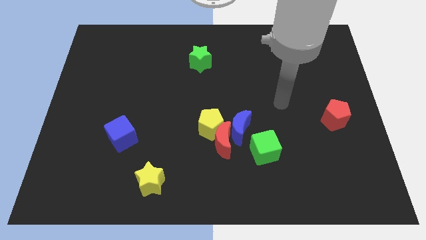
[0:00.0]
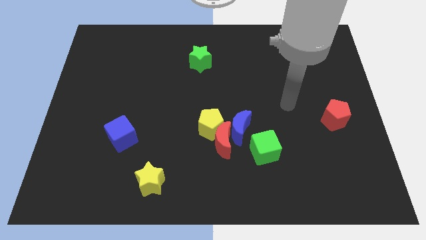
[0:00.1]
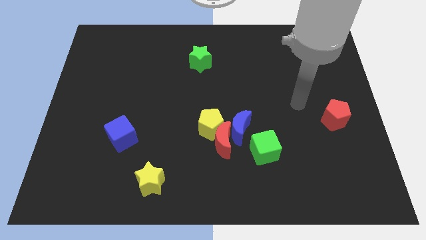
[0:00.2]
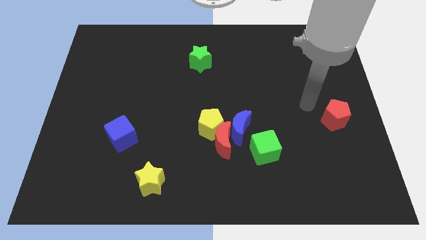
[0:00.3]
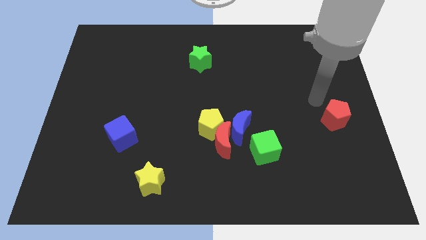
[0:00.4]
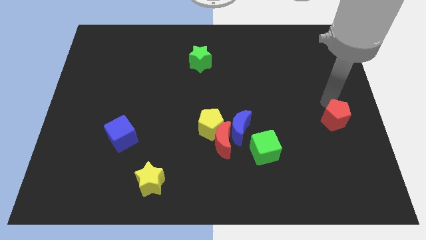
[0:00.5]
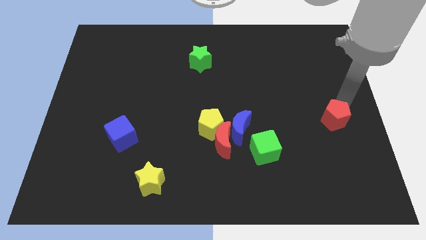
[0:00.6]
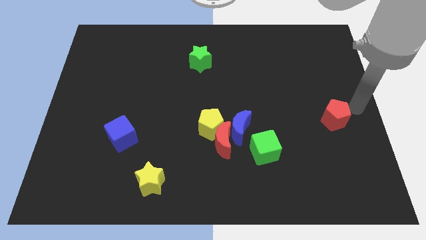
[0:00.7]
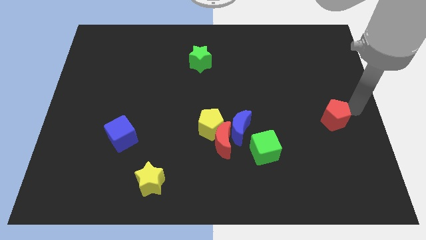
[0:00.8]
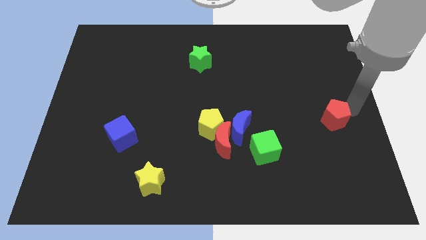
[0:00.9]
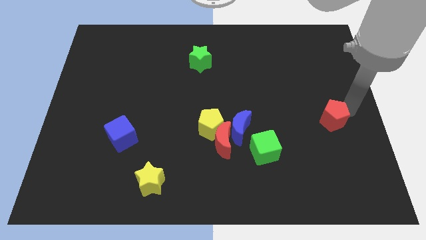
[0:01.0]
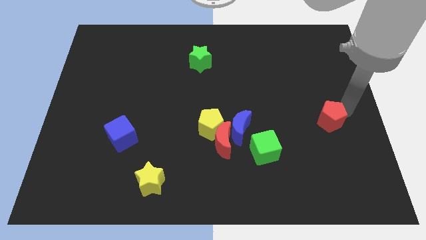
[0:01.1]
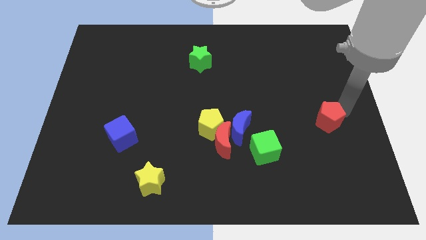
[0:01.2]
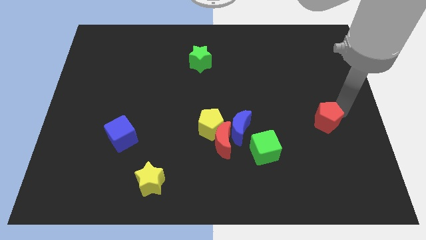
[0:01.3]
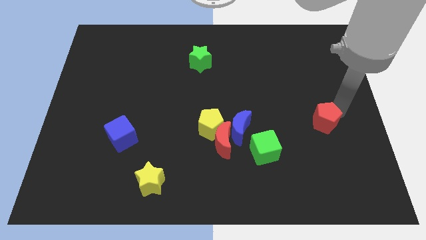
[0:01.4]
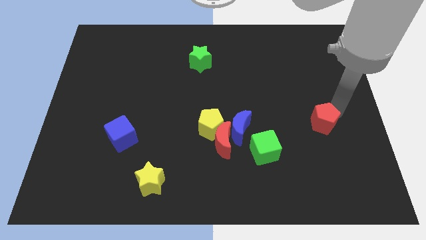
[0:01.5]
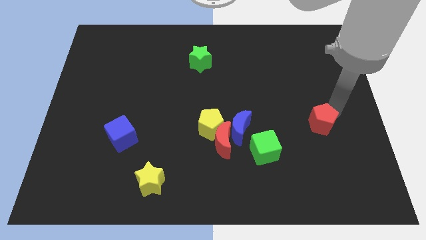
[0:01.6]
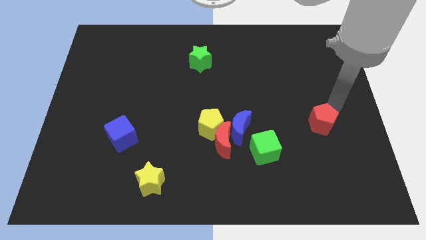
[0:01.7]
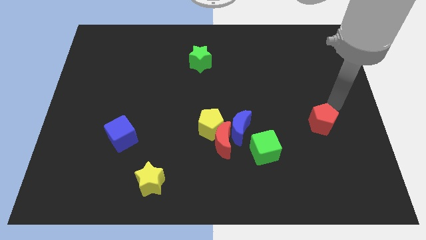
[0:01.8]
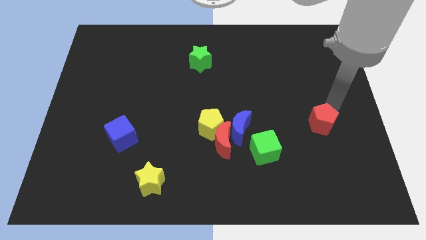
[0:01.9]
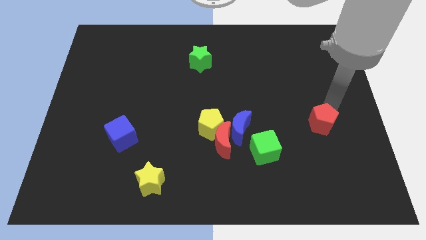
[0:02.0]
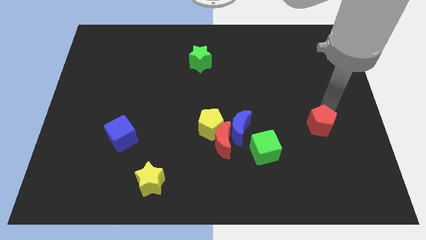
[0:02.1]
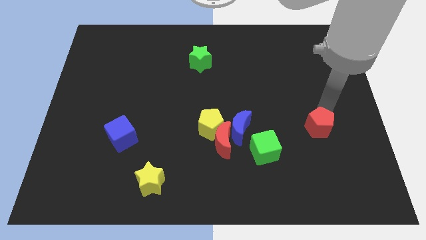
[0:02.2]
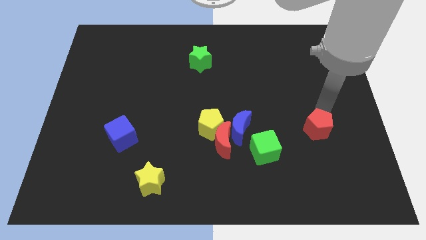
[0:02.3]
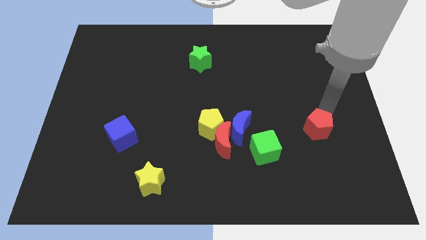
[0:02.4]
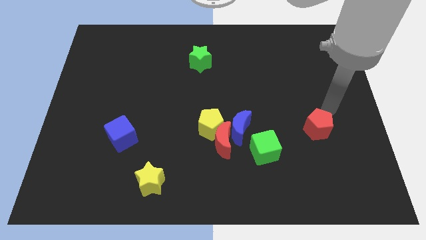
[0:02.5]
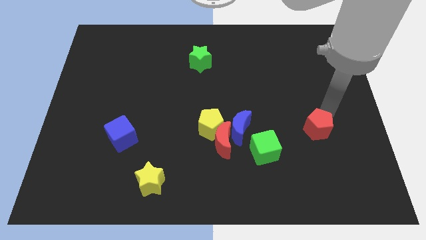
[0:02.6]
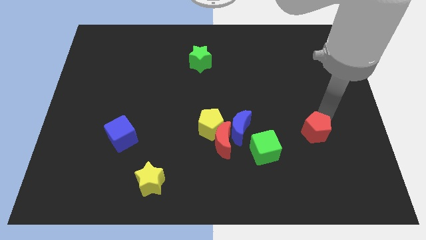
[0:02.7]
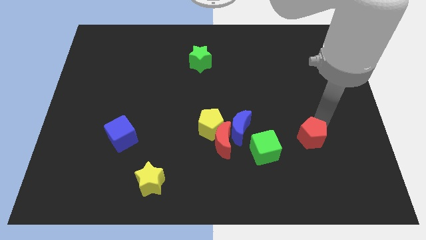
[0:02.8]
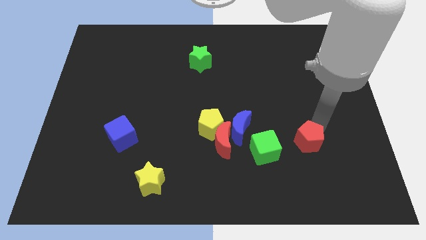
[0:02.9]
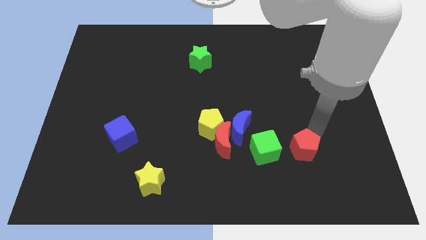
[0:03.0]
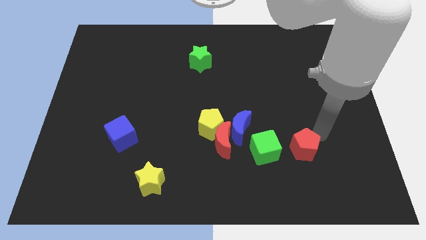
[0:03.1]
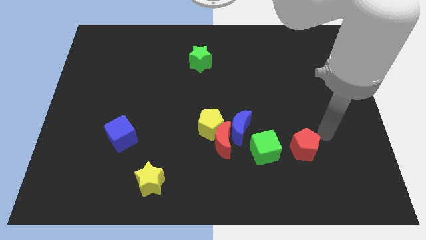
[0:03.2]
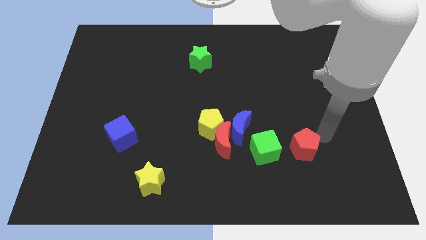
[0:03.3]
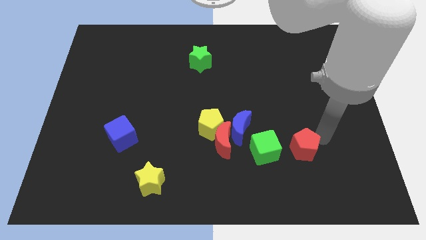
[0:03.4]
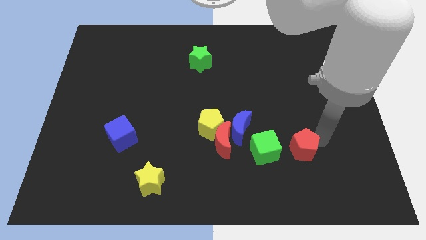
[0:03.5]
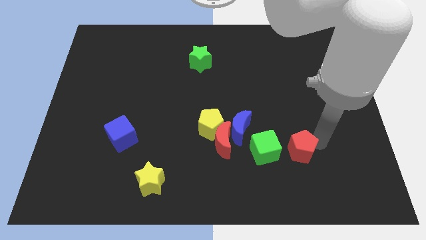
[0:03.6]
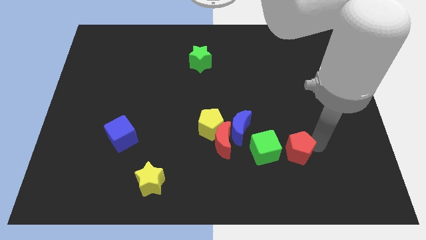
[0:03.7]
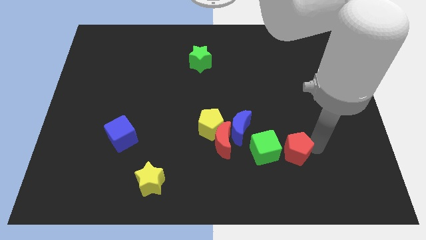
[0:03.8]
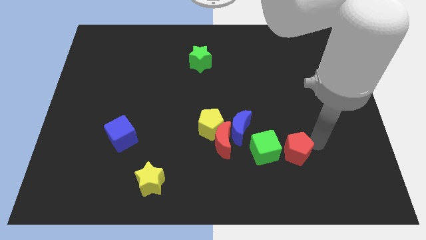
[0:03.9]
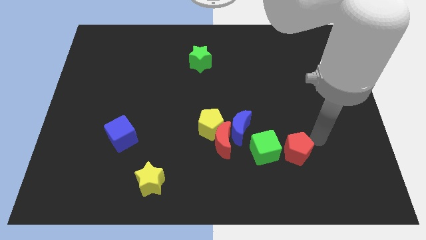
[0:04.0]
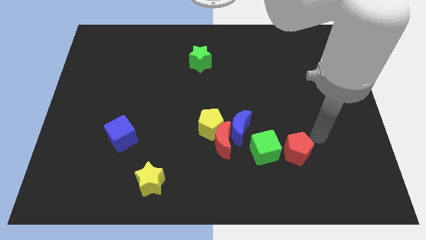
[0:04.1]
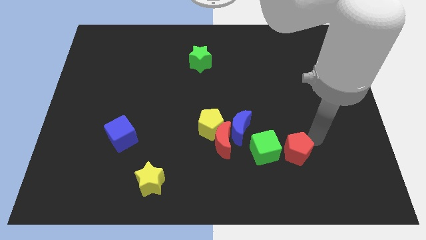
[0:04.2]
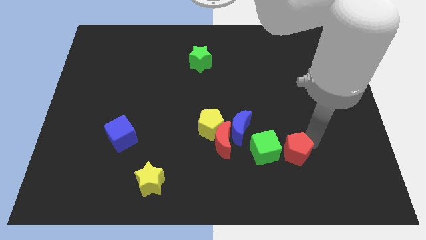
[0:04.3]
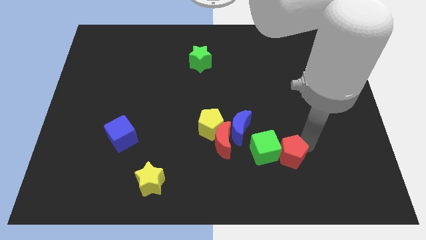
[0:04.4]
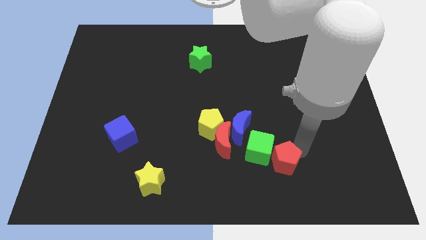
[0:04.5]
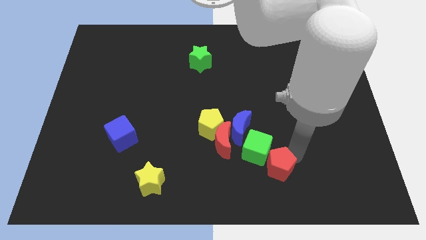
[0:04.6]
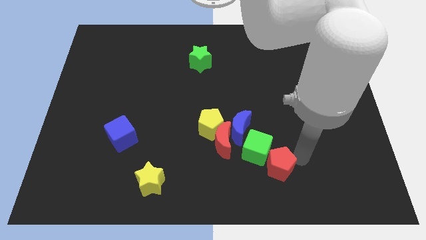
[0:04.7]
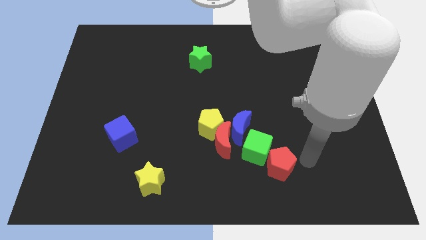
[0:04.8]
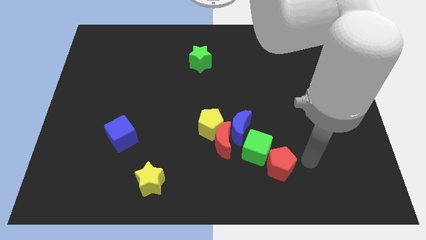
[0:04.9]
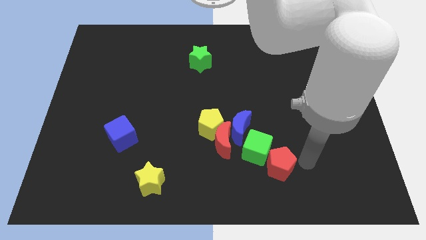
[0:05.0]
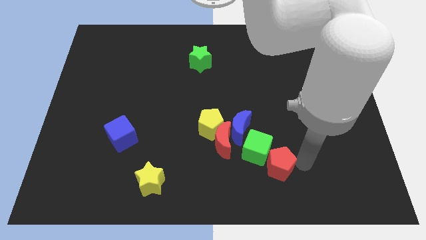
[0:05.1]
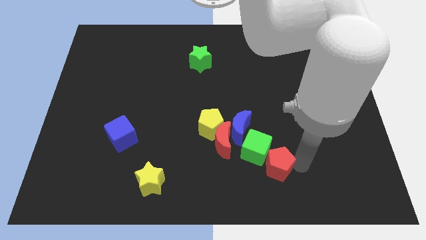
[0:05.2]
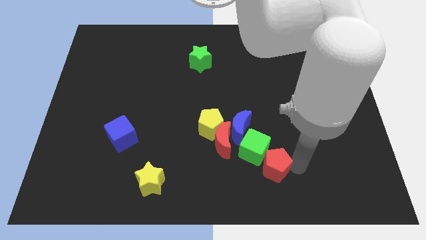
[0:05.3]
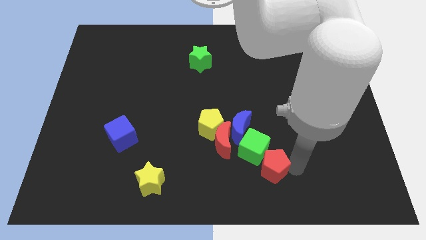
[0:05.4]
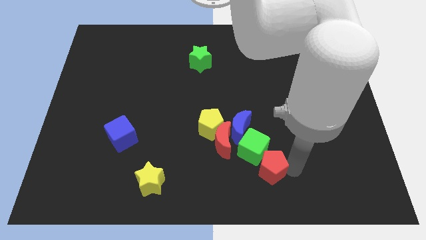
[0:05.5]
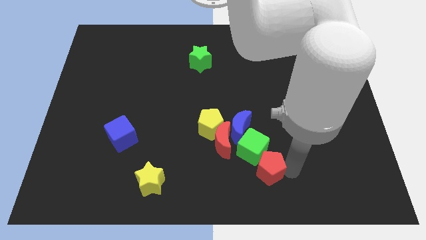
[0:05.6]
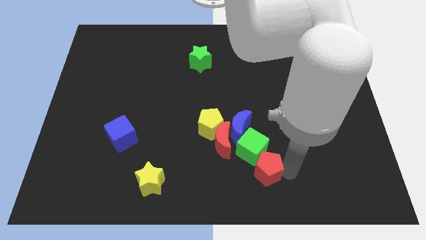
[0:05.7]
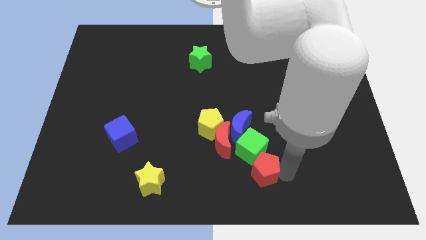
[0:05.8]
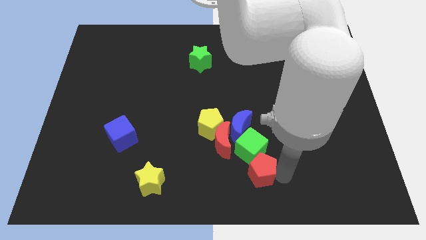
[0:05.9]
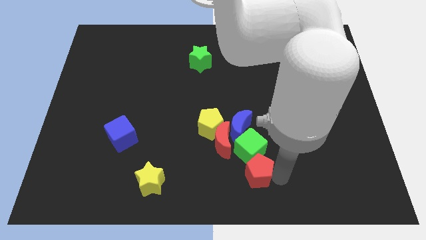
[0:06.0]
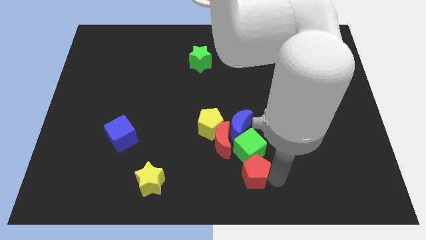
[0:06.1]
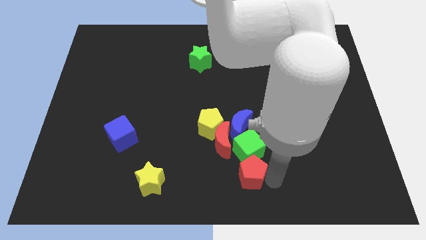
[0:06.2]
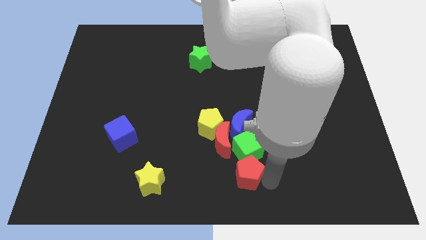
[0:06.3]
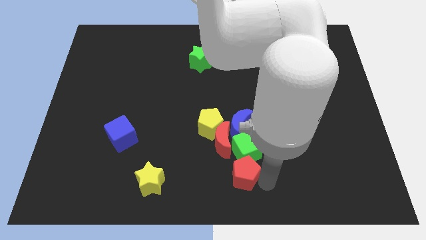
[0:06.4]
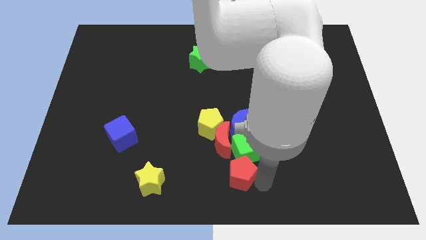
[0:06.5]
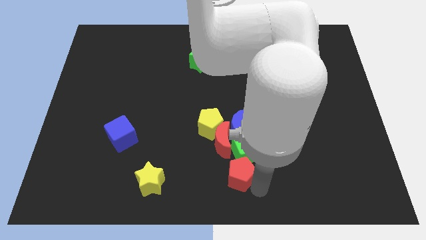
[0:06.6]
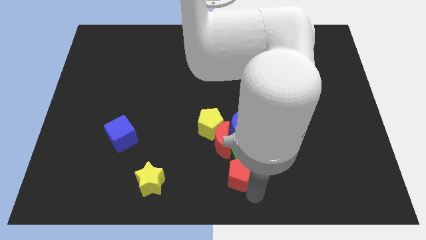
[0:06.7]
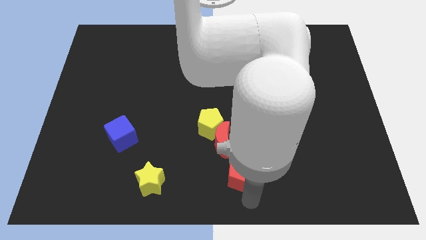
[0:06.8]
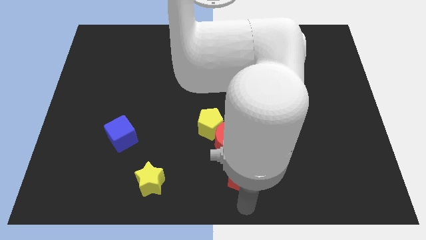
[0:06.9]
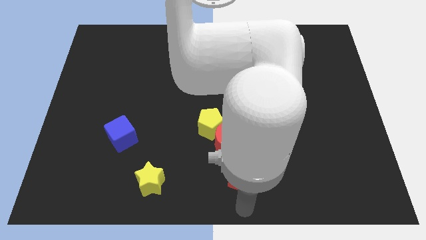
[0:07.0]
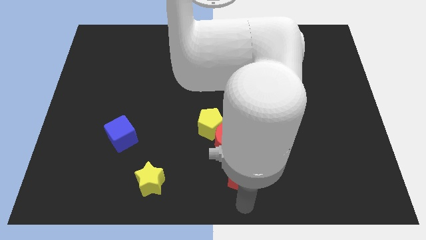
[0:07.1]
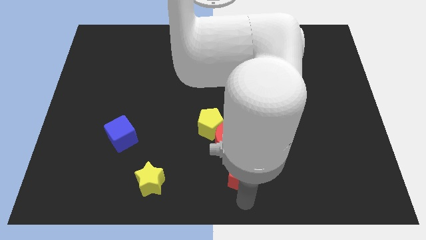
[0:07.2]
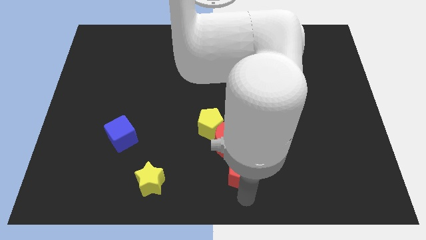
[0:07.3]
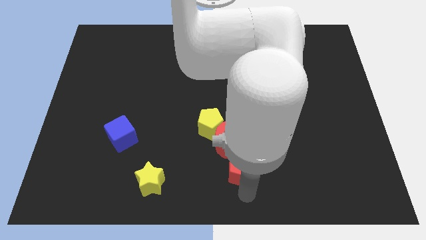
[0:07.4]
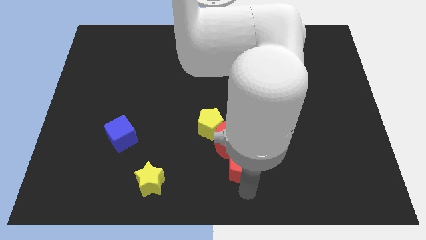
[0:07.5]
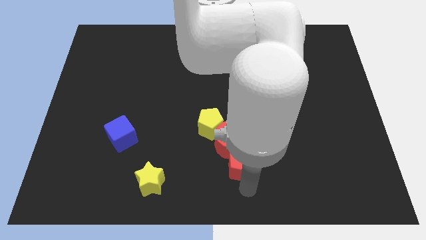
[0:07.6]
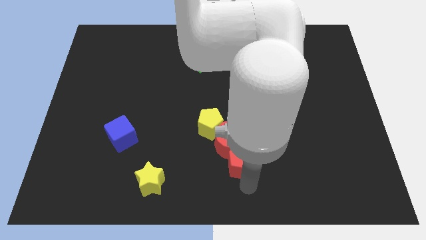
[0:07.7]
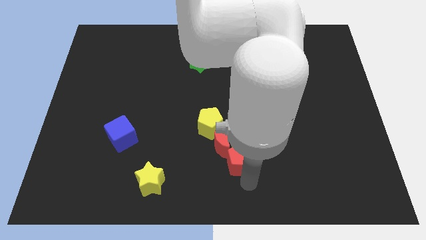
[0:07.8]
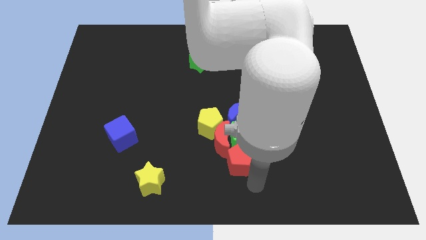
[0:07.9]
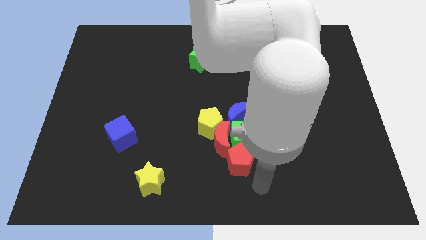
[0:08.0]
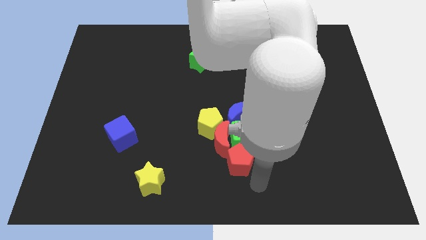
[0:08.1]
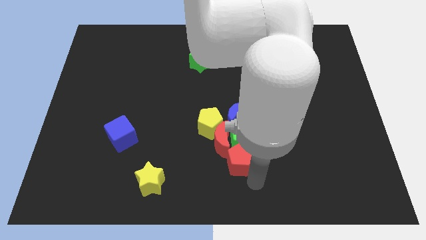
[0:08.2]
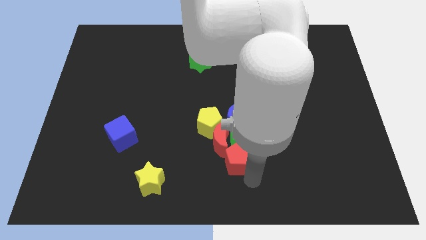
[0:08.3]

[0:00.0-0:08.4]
push the red pentagon next to the red moon
